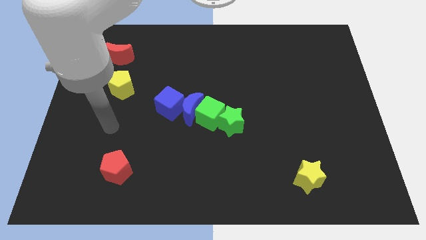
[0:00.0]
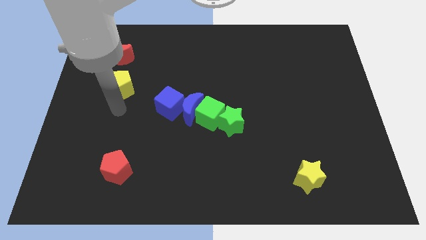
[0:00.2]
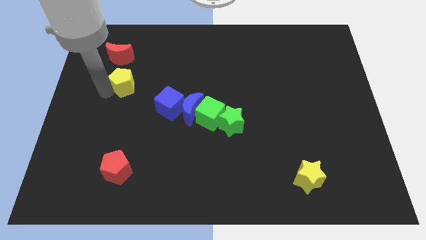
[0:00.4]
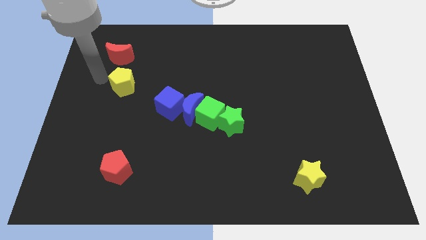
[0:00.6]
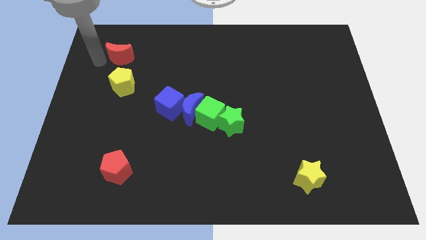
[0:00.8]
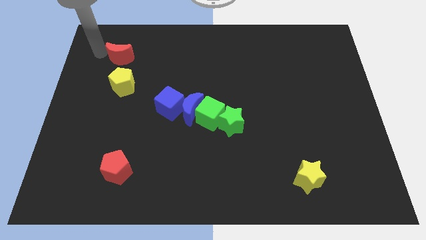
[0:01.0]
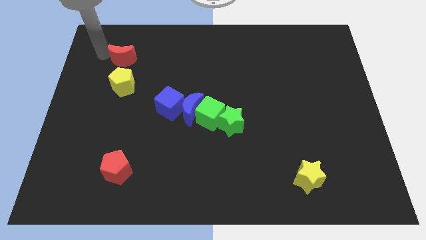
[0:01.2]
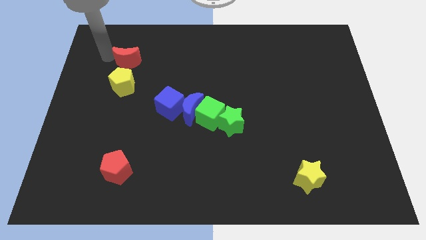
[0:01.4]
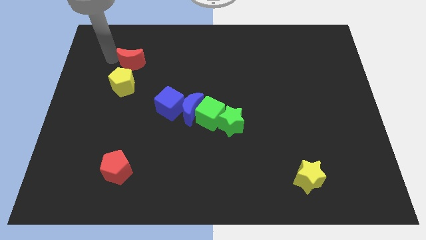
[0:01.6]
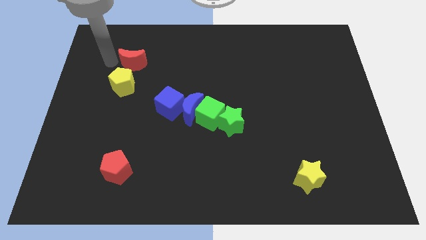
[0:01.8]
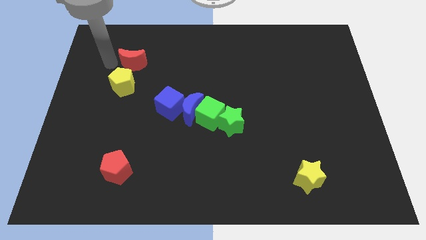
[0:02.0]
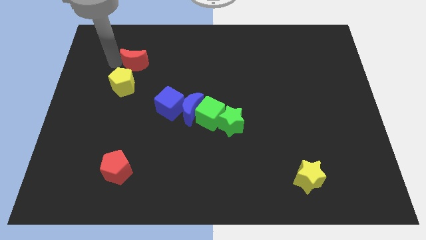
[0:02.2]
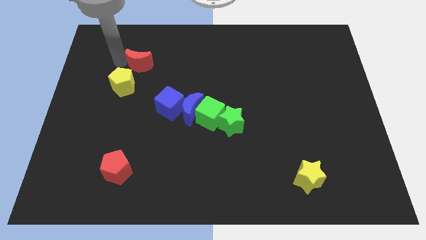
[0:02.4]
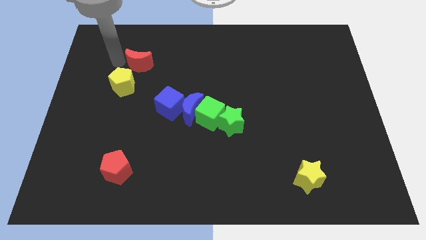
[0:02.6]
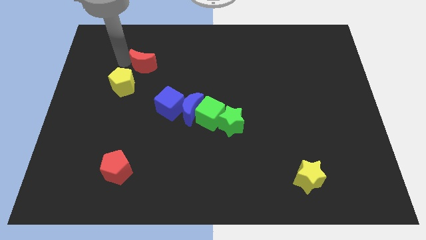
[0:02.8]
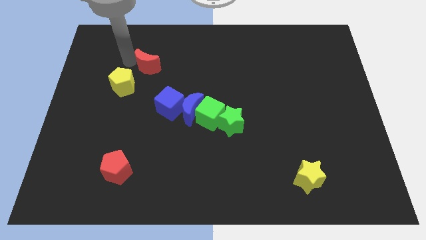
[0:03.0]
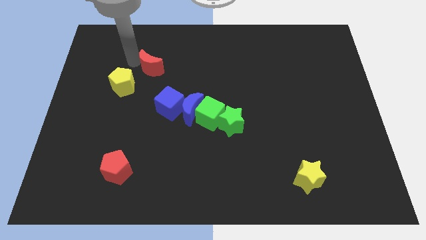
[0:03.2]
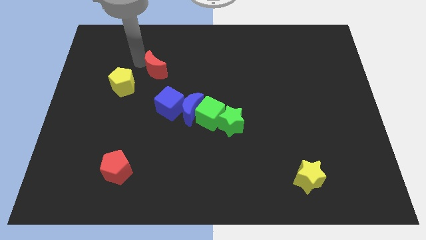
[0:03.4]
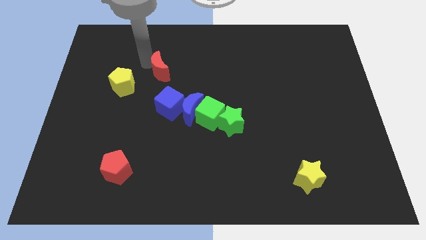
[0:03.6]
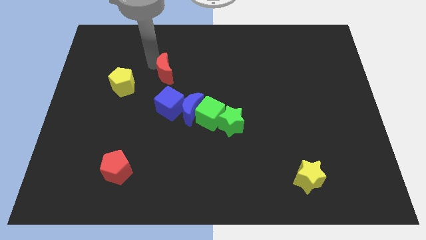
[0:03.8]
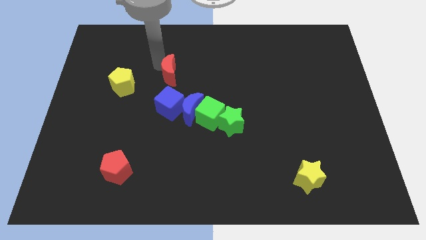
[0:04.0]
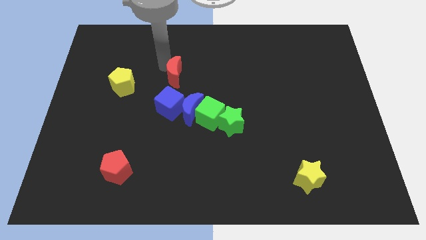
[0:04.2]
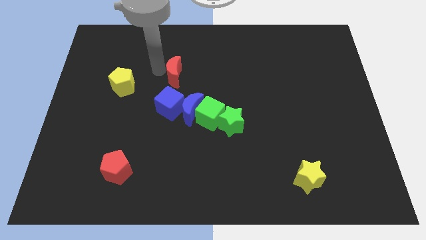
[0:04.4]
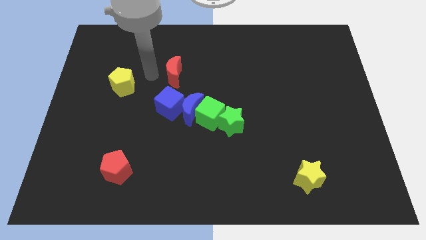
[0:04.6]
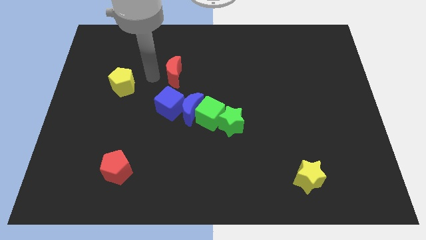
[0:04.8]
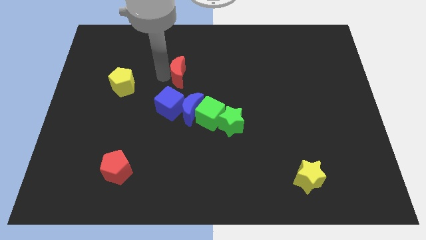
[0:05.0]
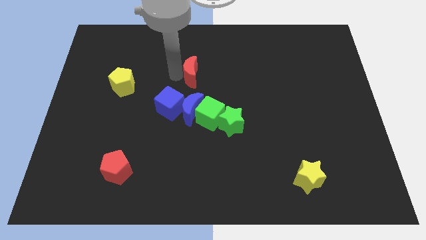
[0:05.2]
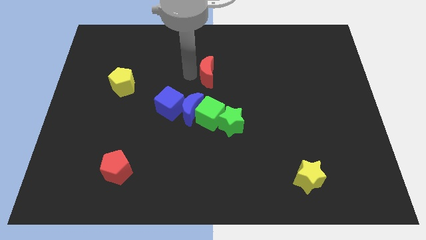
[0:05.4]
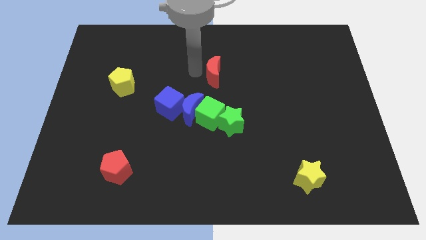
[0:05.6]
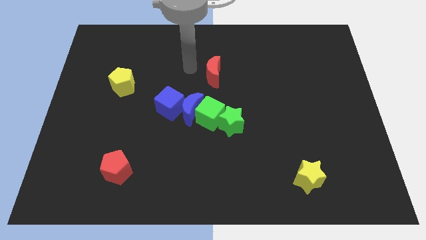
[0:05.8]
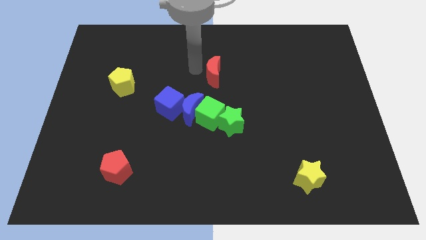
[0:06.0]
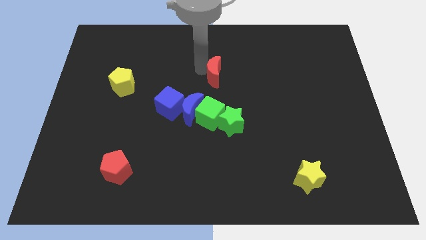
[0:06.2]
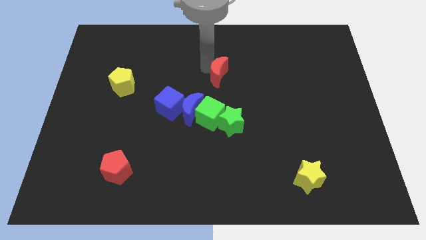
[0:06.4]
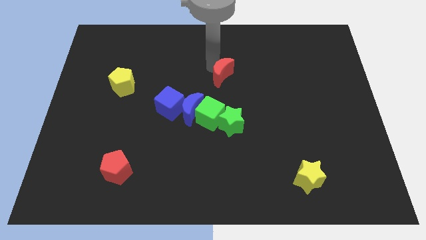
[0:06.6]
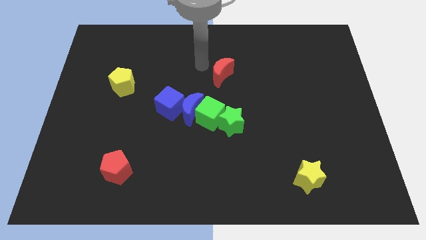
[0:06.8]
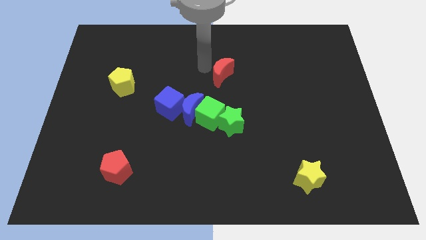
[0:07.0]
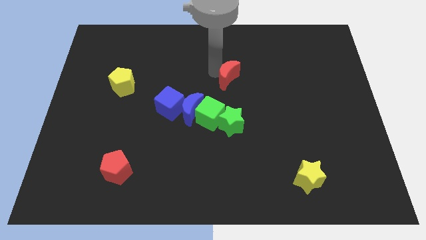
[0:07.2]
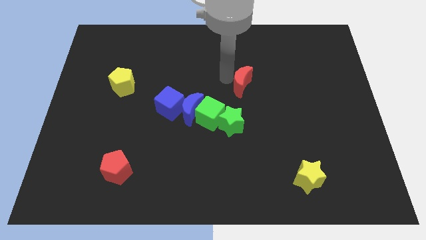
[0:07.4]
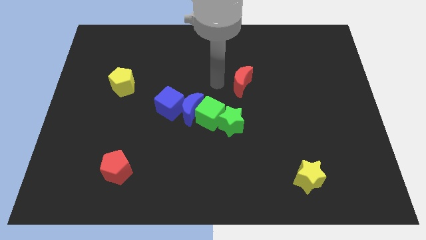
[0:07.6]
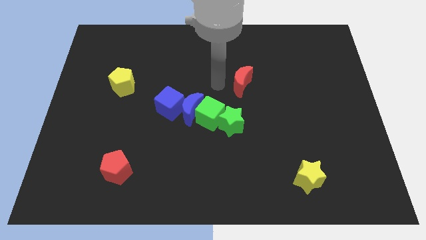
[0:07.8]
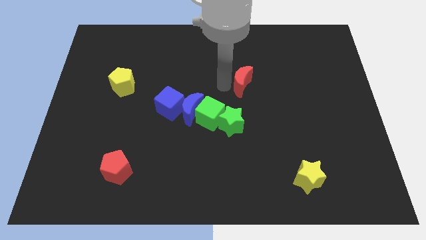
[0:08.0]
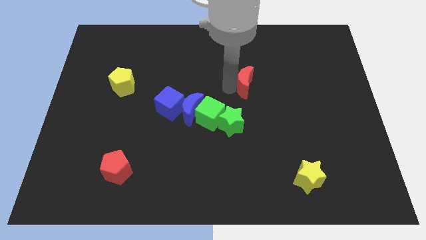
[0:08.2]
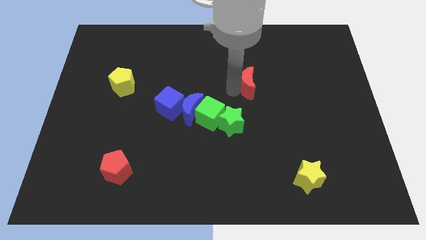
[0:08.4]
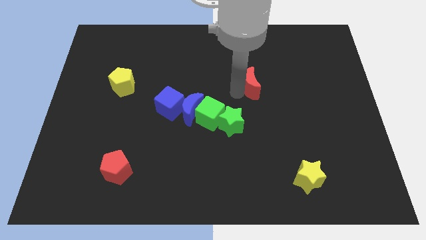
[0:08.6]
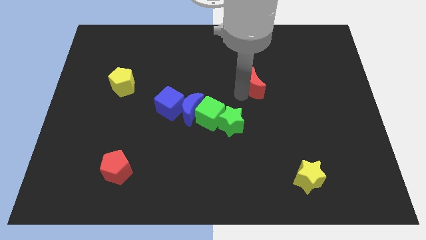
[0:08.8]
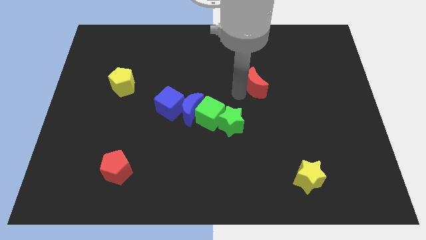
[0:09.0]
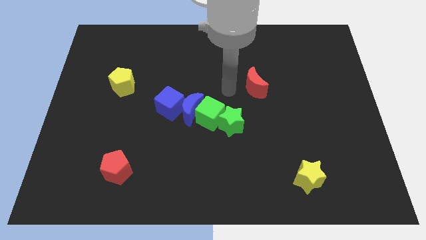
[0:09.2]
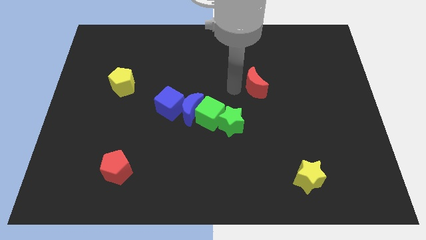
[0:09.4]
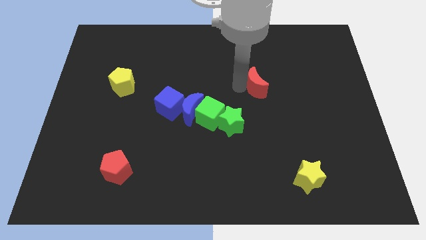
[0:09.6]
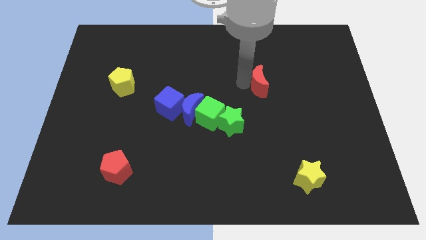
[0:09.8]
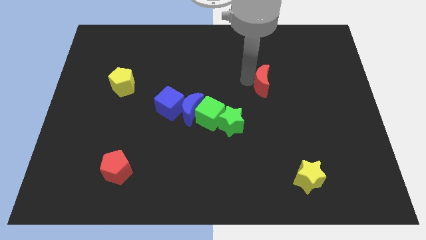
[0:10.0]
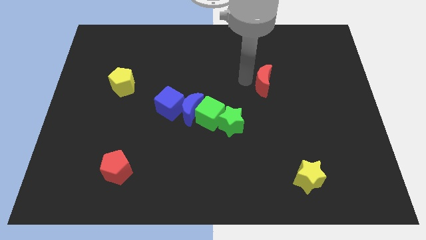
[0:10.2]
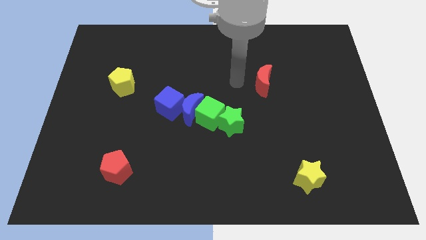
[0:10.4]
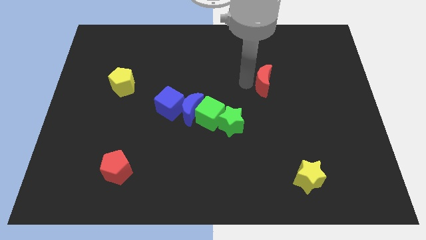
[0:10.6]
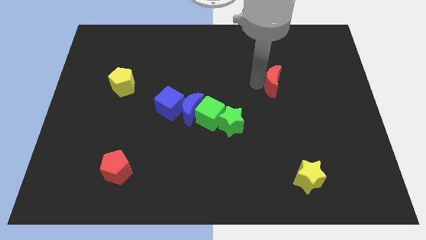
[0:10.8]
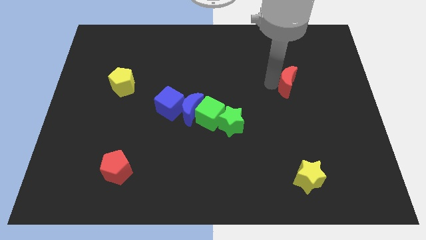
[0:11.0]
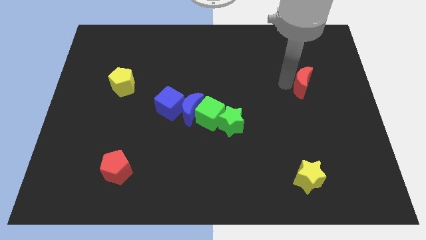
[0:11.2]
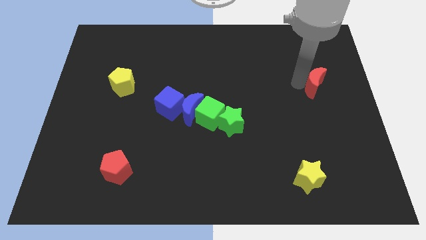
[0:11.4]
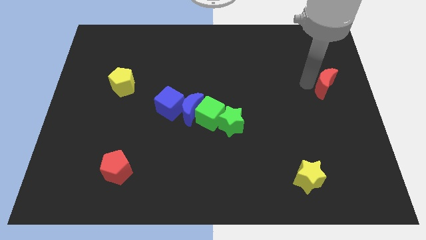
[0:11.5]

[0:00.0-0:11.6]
push the red moon to the right side of the board
